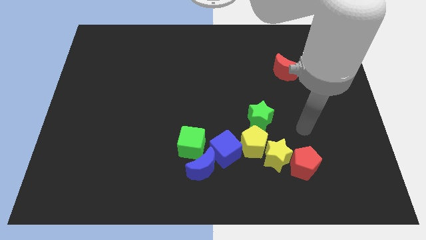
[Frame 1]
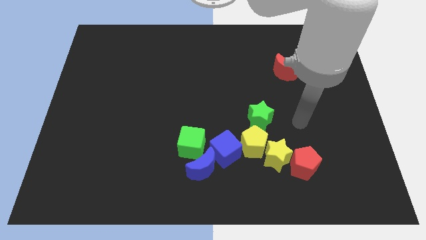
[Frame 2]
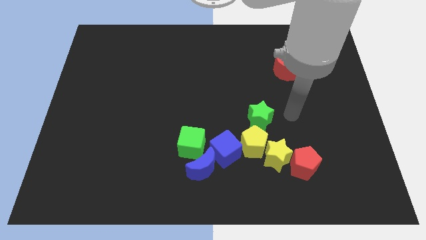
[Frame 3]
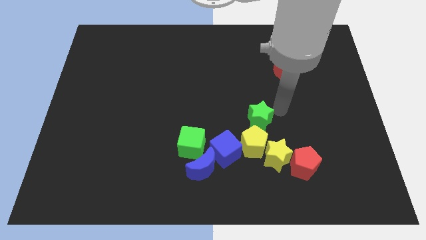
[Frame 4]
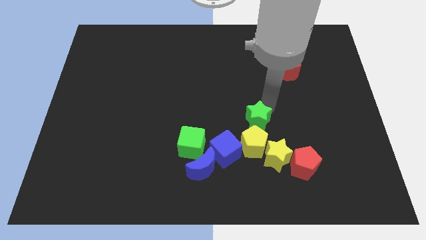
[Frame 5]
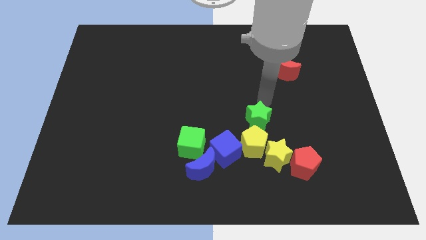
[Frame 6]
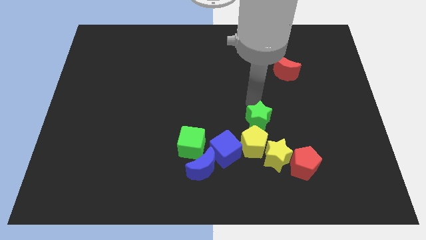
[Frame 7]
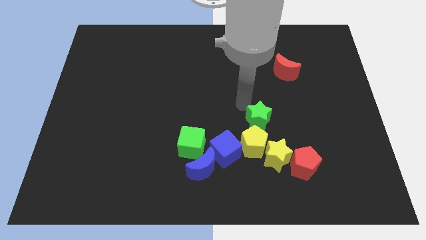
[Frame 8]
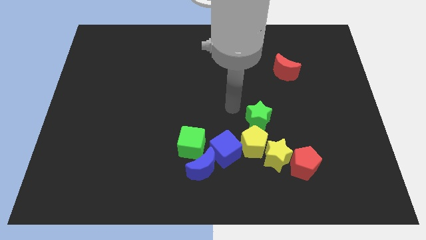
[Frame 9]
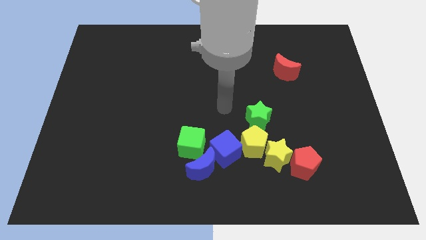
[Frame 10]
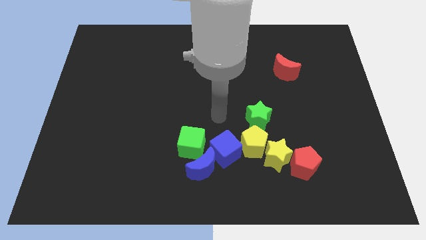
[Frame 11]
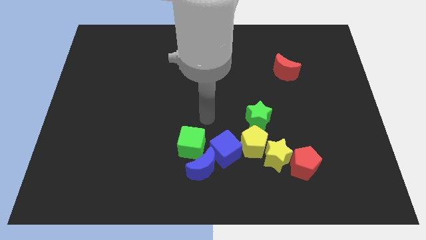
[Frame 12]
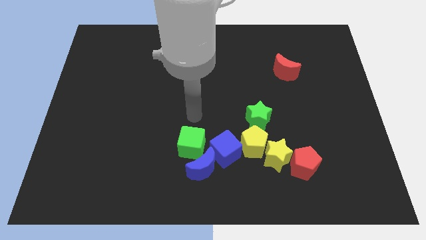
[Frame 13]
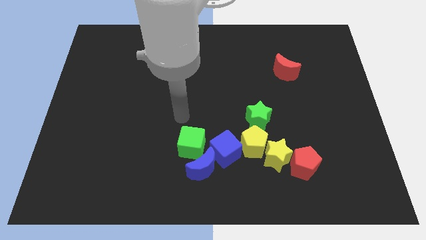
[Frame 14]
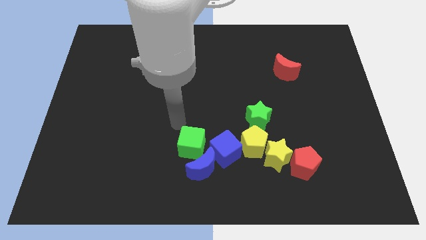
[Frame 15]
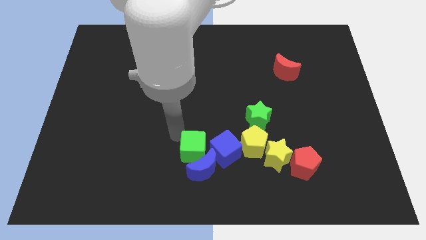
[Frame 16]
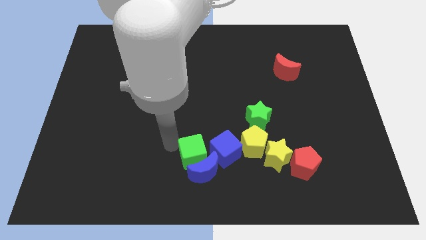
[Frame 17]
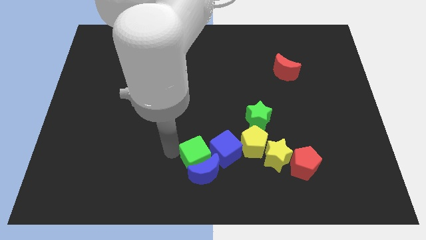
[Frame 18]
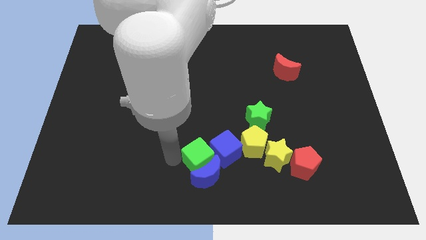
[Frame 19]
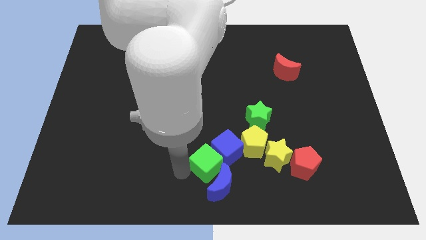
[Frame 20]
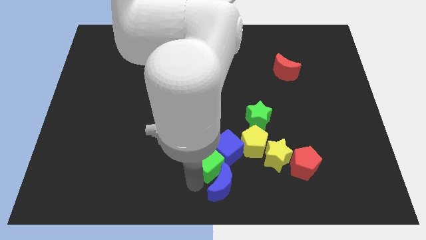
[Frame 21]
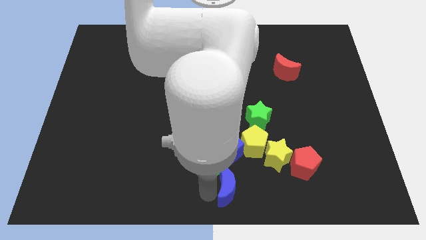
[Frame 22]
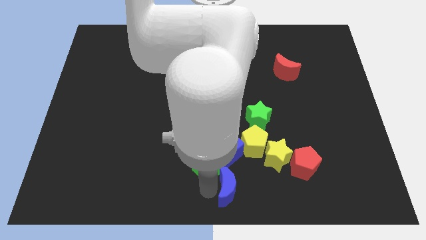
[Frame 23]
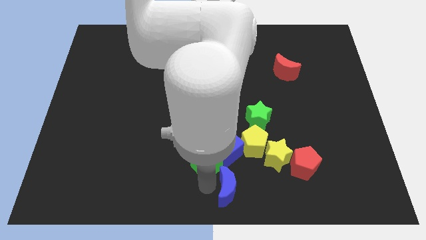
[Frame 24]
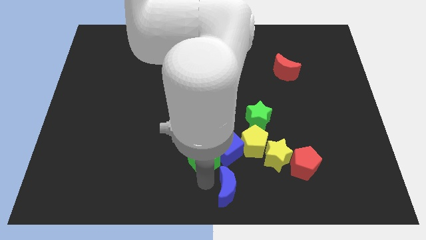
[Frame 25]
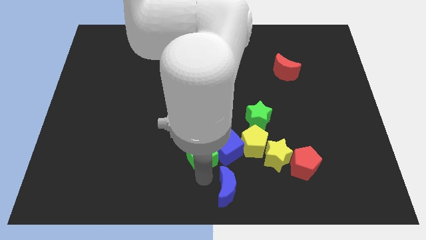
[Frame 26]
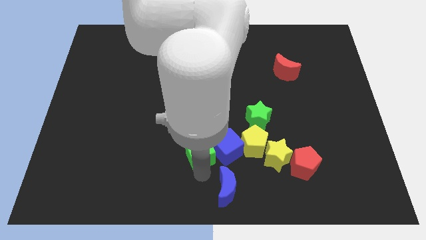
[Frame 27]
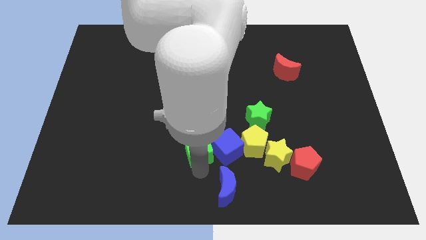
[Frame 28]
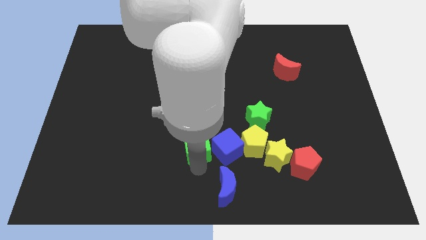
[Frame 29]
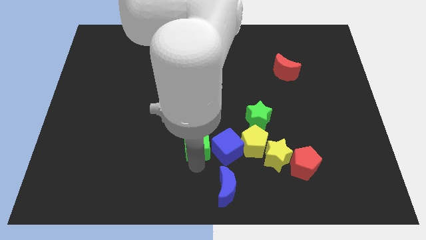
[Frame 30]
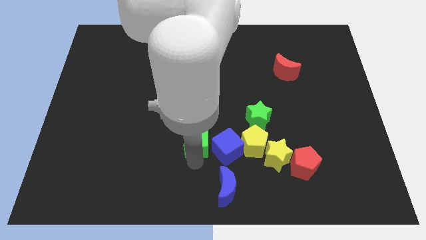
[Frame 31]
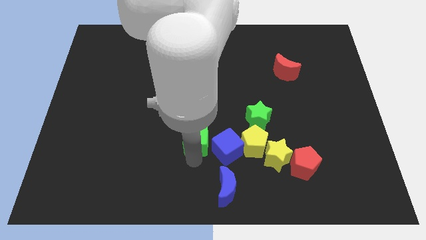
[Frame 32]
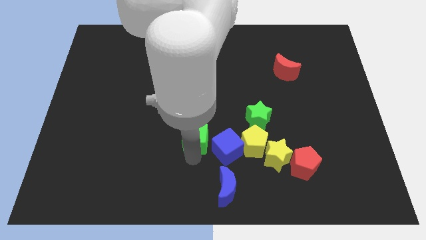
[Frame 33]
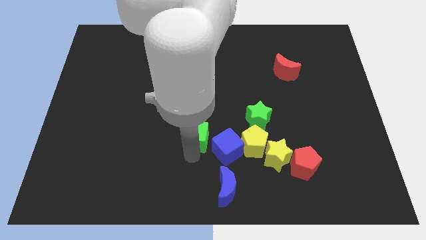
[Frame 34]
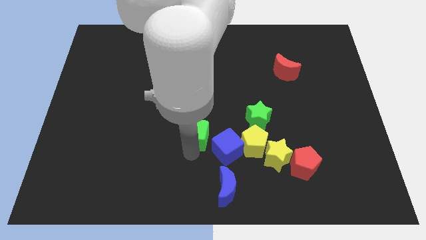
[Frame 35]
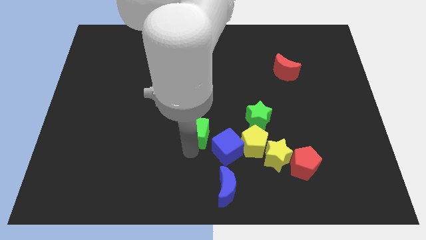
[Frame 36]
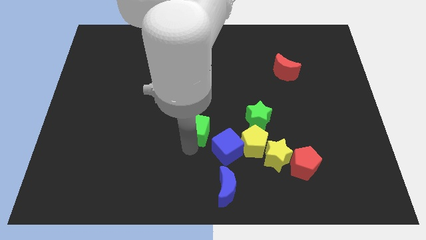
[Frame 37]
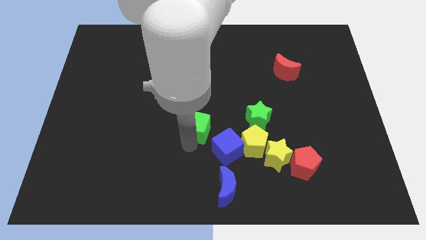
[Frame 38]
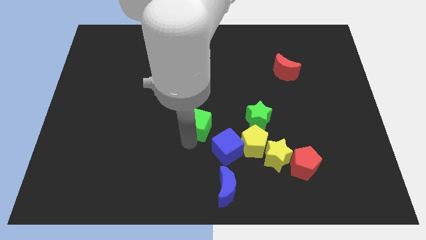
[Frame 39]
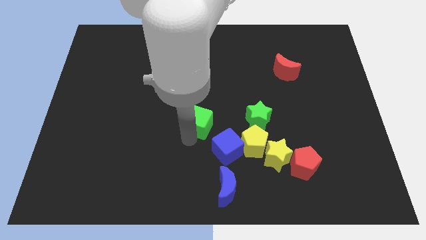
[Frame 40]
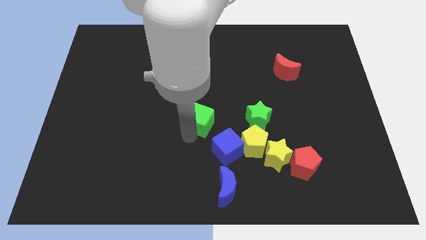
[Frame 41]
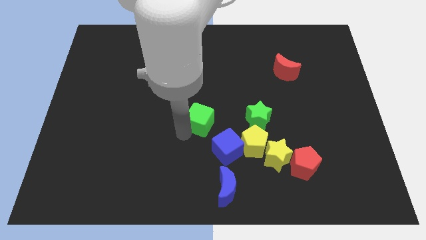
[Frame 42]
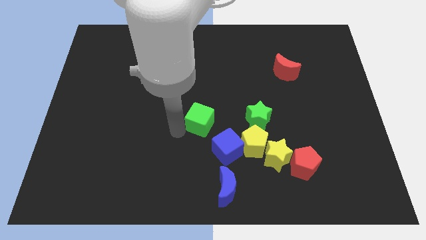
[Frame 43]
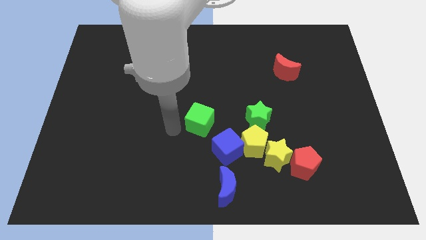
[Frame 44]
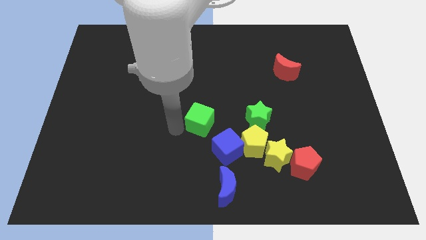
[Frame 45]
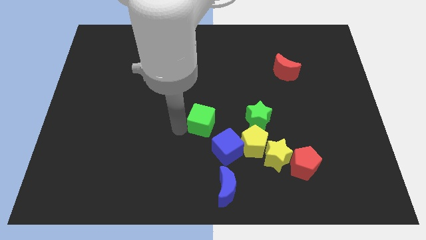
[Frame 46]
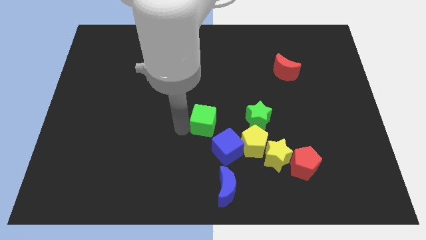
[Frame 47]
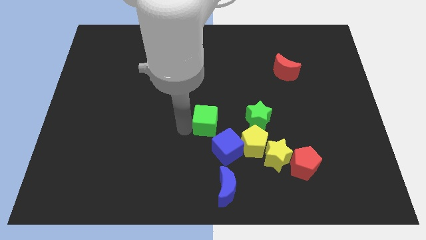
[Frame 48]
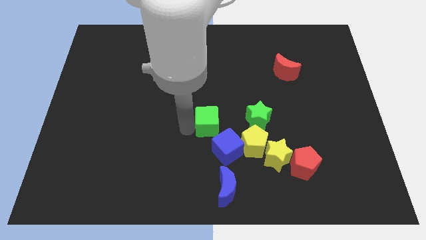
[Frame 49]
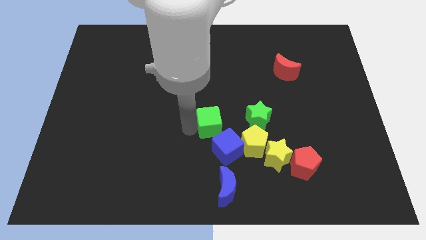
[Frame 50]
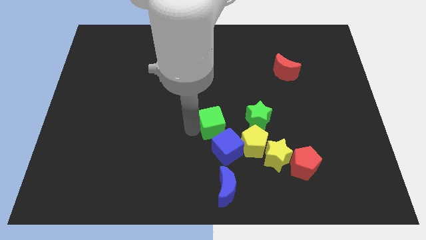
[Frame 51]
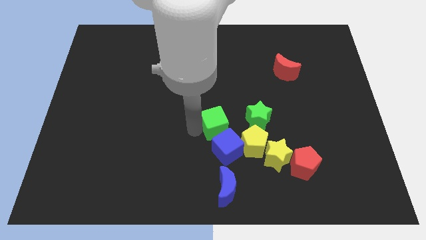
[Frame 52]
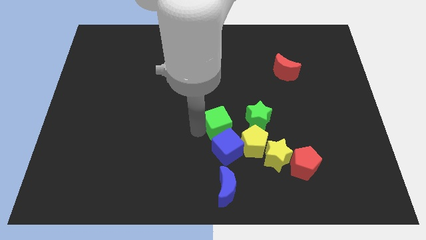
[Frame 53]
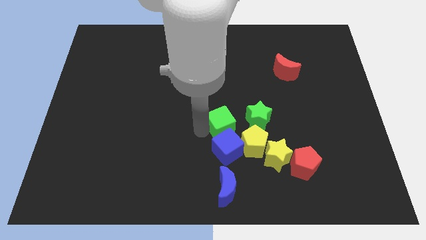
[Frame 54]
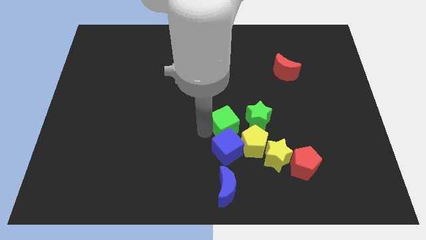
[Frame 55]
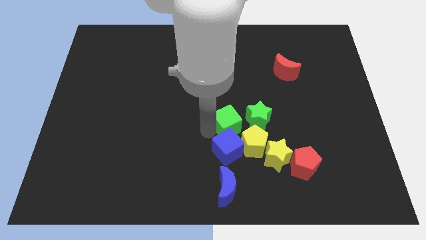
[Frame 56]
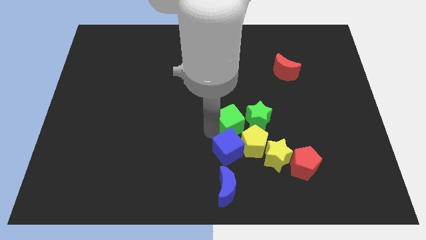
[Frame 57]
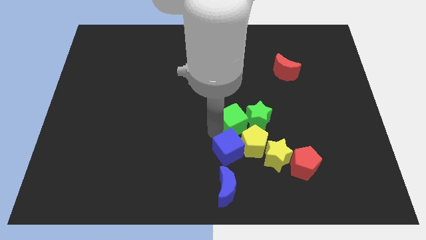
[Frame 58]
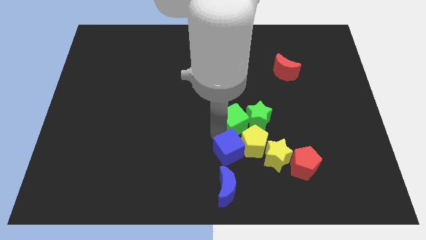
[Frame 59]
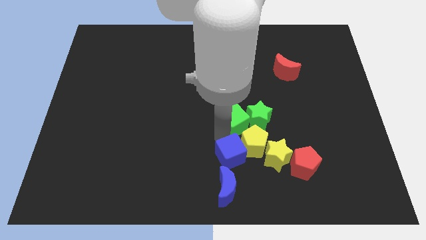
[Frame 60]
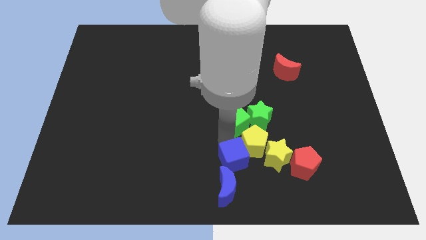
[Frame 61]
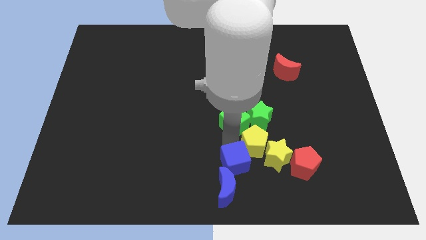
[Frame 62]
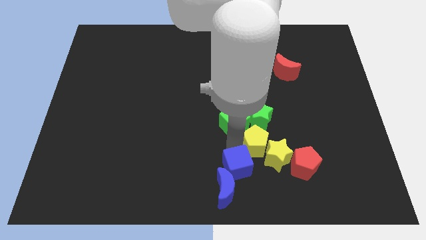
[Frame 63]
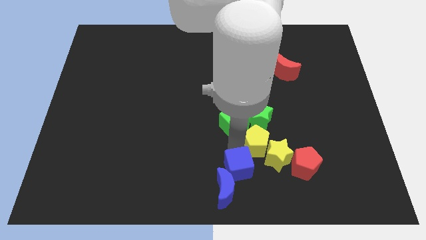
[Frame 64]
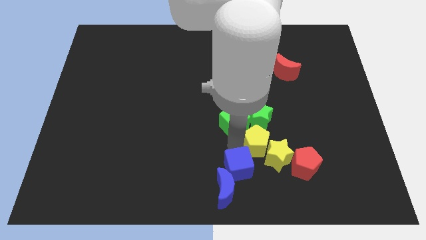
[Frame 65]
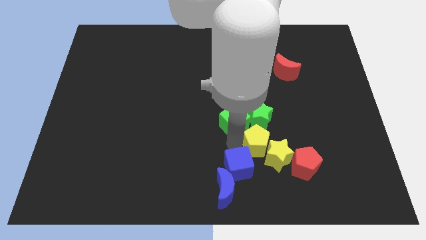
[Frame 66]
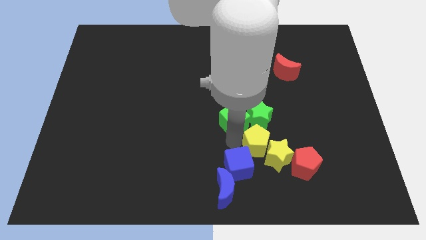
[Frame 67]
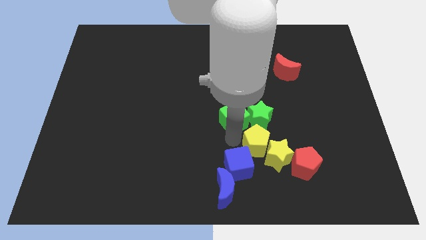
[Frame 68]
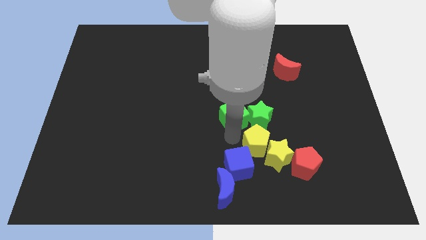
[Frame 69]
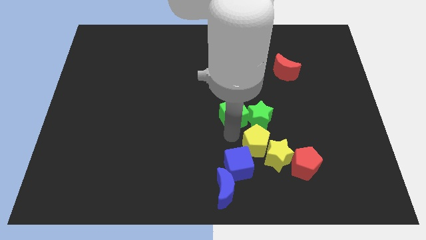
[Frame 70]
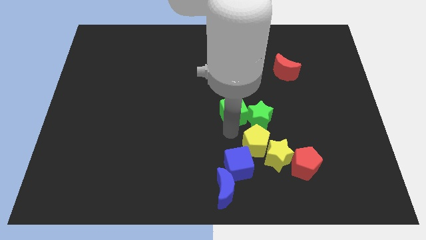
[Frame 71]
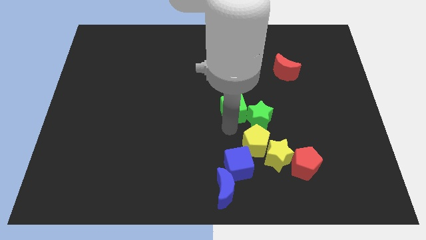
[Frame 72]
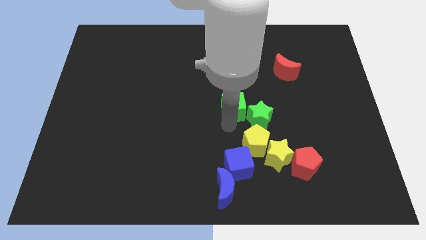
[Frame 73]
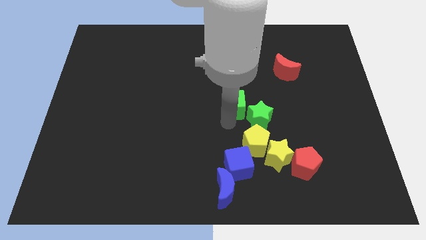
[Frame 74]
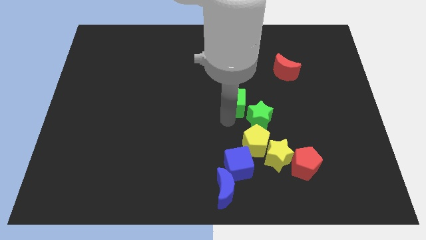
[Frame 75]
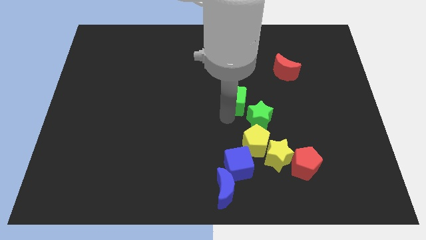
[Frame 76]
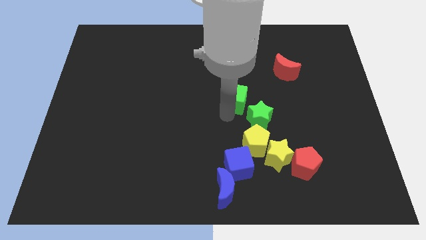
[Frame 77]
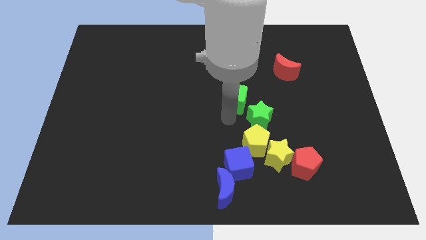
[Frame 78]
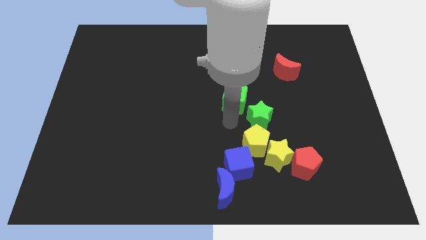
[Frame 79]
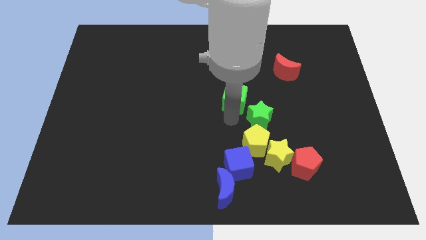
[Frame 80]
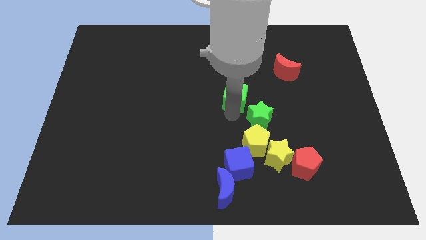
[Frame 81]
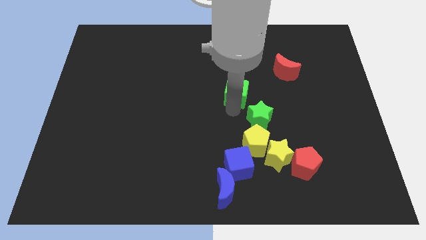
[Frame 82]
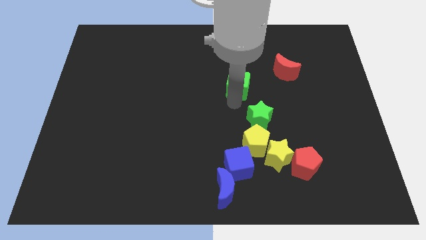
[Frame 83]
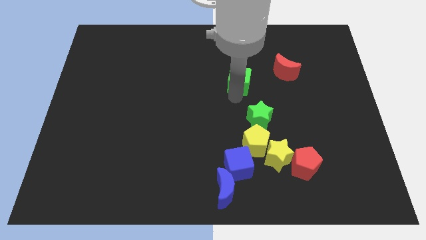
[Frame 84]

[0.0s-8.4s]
put the green cube to the left side of the red moon
